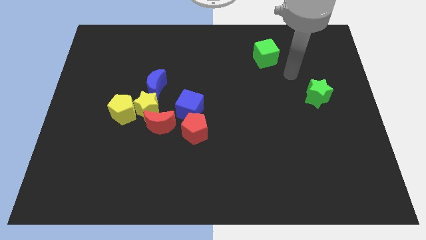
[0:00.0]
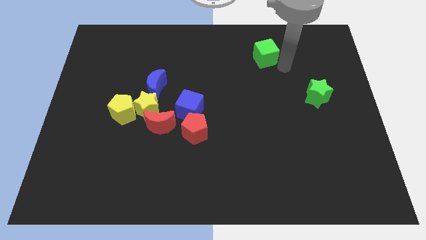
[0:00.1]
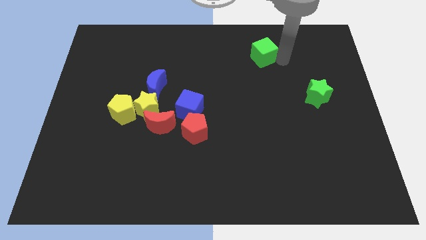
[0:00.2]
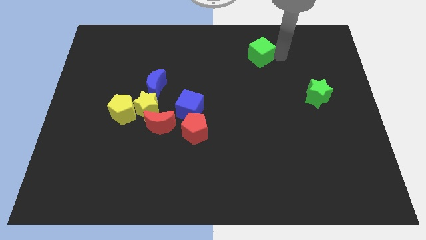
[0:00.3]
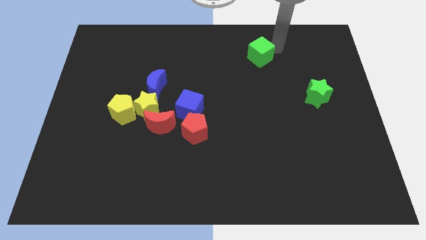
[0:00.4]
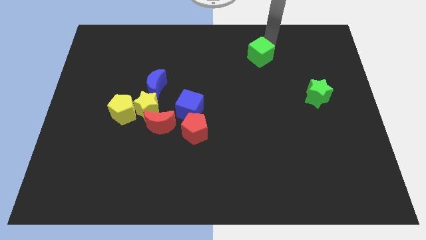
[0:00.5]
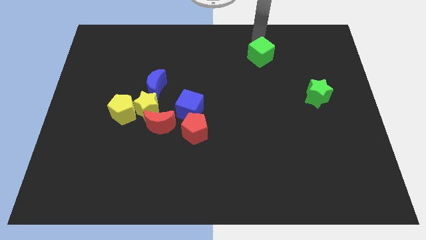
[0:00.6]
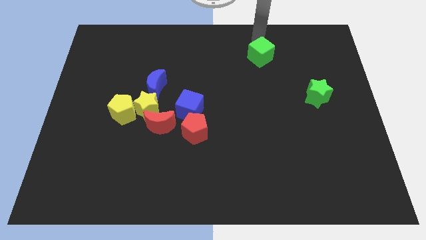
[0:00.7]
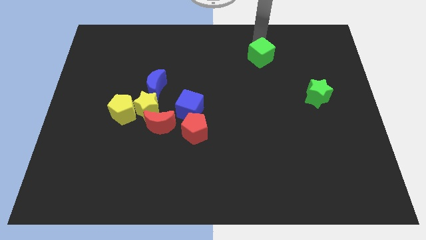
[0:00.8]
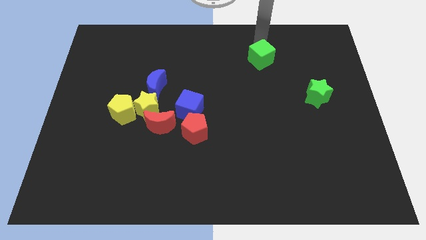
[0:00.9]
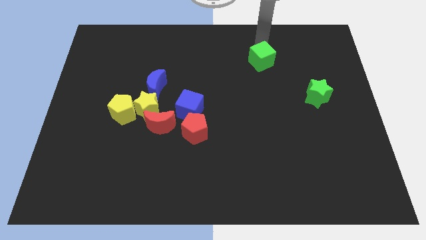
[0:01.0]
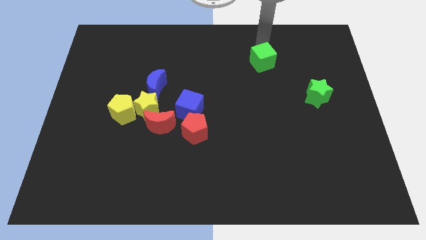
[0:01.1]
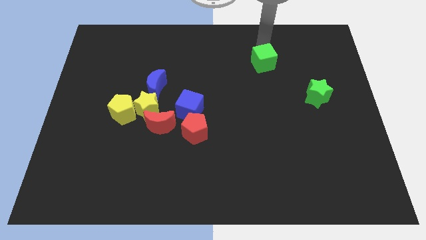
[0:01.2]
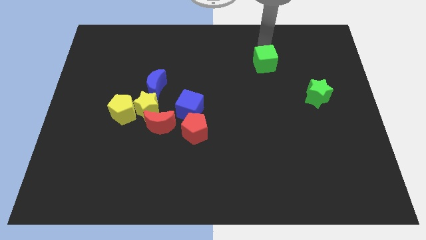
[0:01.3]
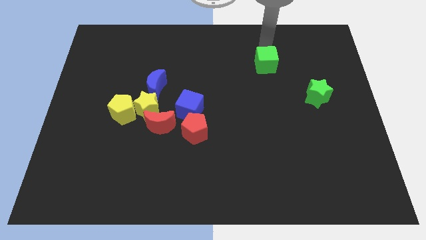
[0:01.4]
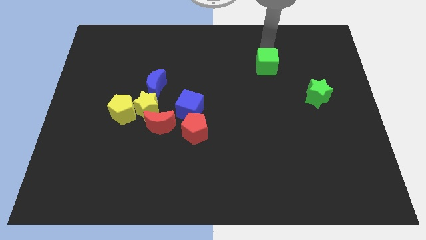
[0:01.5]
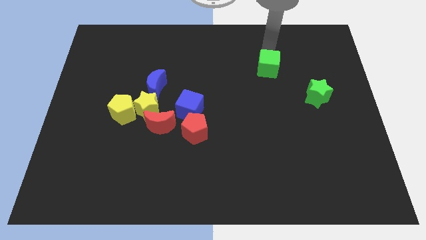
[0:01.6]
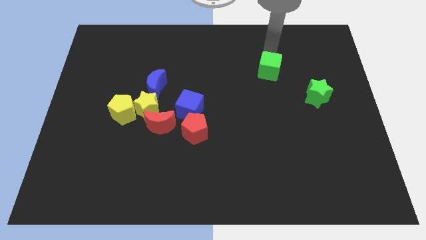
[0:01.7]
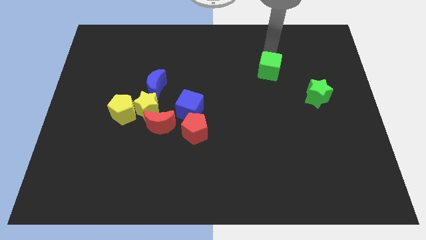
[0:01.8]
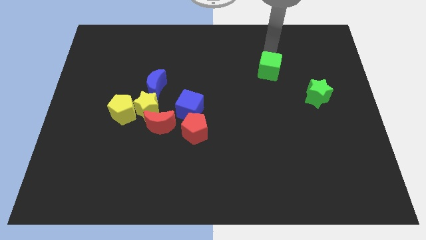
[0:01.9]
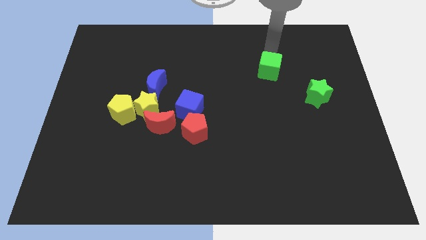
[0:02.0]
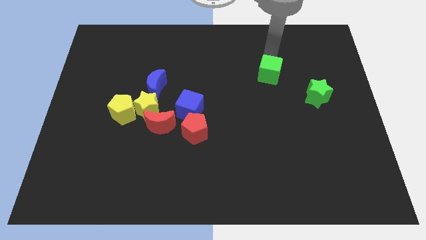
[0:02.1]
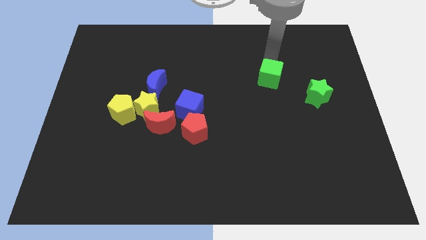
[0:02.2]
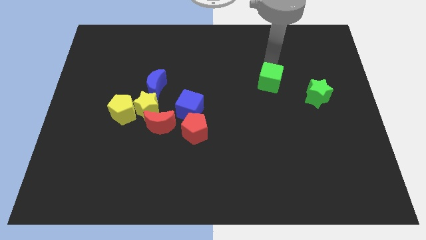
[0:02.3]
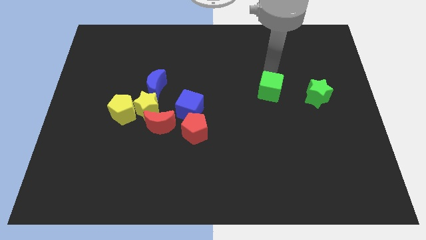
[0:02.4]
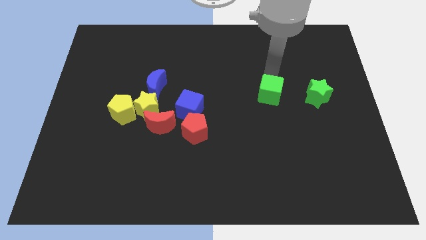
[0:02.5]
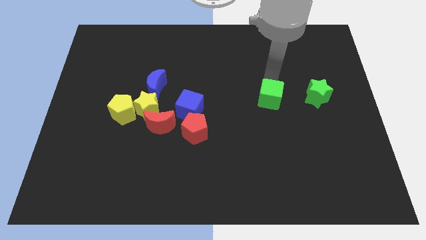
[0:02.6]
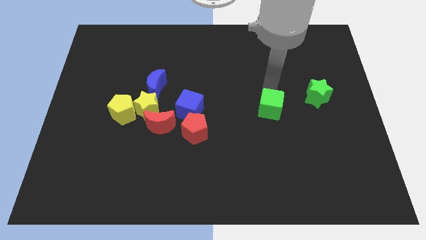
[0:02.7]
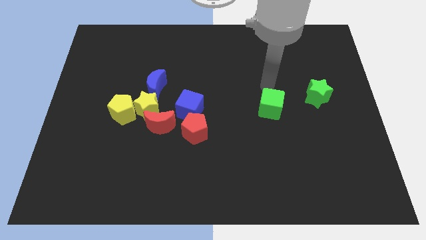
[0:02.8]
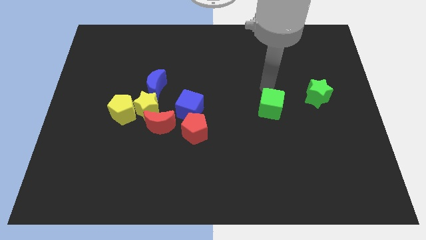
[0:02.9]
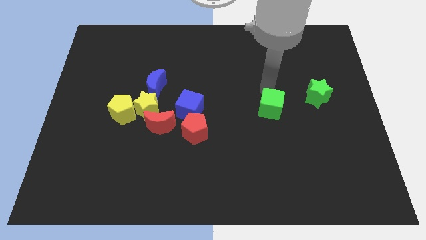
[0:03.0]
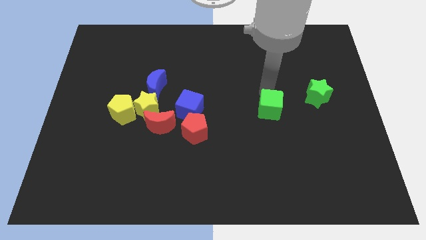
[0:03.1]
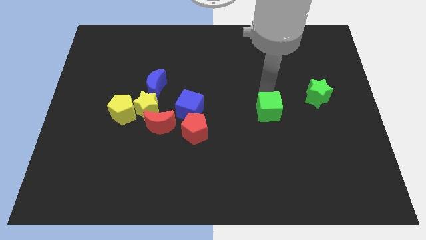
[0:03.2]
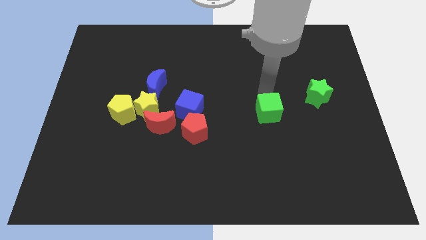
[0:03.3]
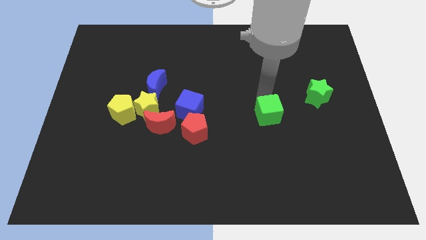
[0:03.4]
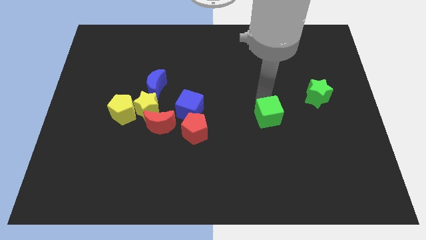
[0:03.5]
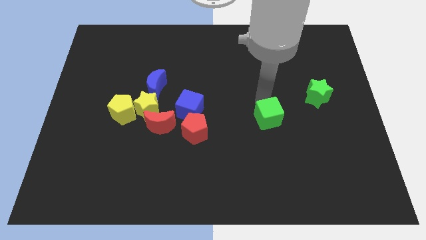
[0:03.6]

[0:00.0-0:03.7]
push the green cube down

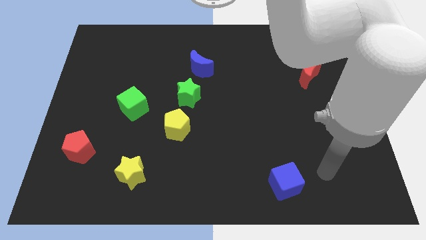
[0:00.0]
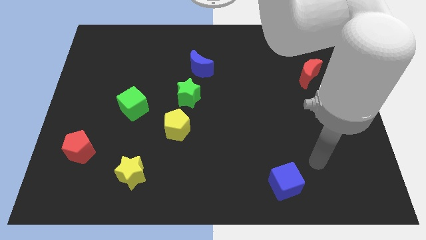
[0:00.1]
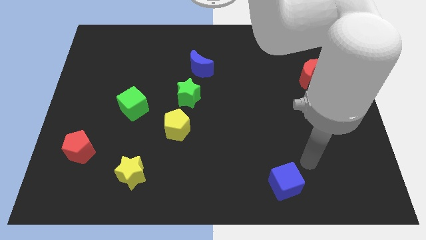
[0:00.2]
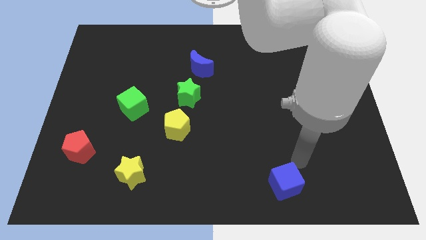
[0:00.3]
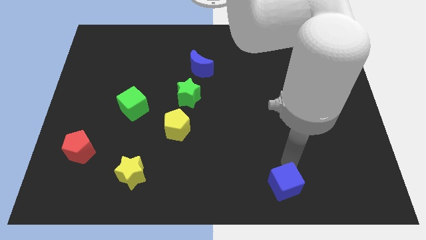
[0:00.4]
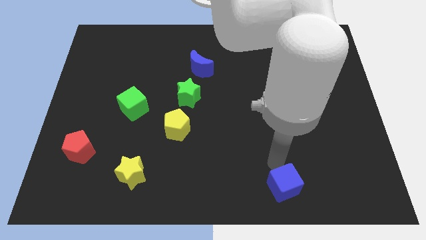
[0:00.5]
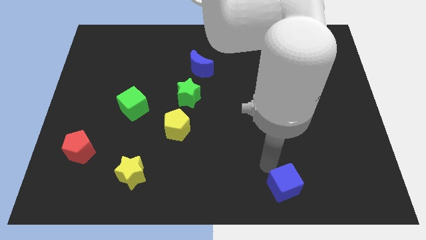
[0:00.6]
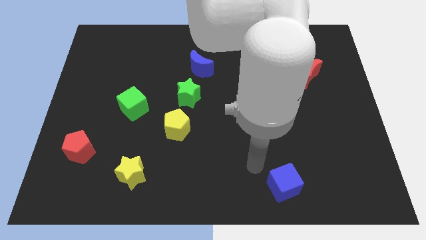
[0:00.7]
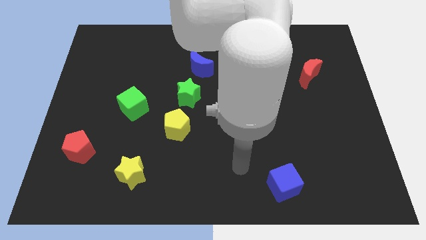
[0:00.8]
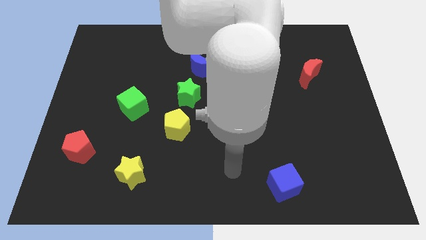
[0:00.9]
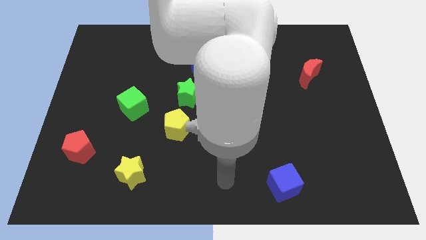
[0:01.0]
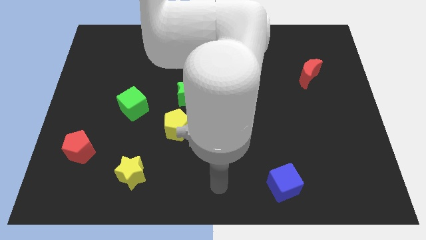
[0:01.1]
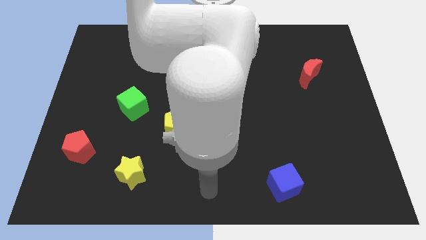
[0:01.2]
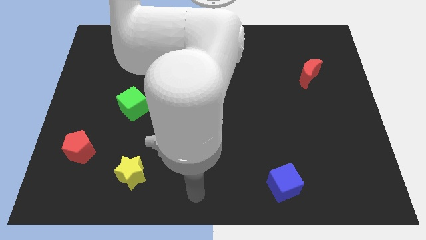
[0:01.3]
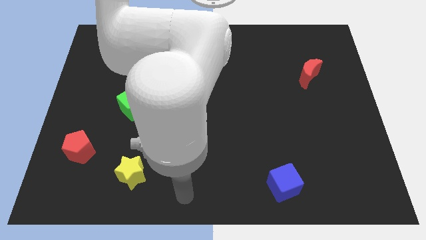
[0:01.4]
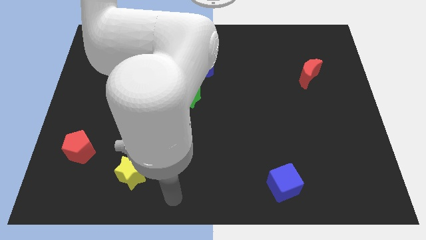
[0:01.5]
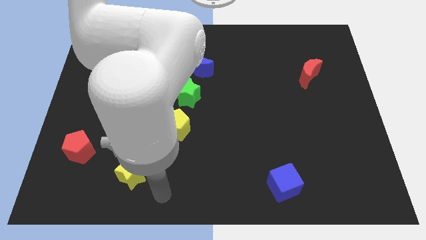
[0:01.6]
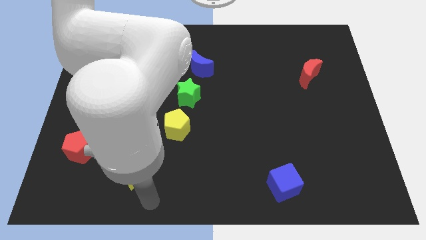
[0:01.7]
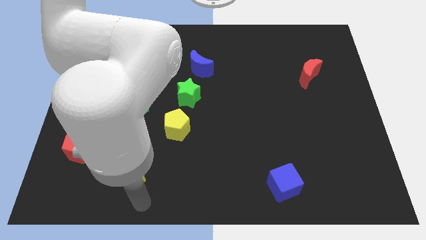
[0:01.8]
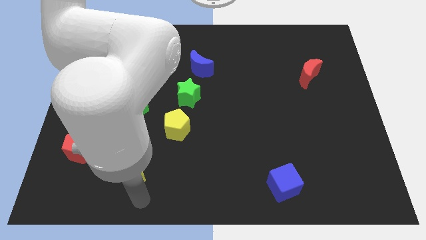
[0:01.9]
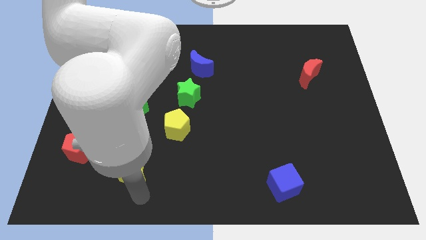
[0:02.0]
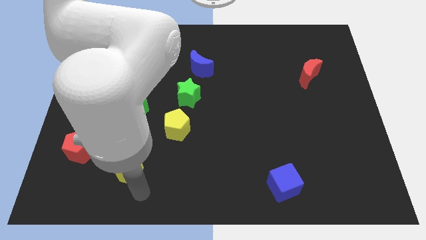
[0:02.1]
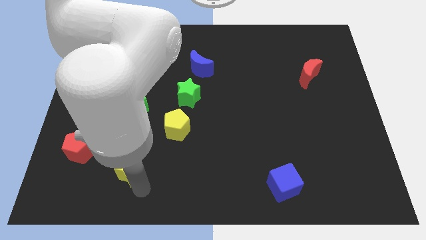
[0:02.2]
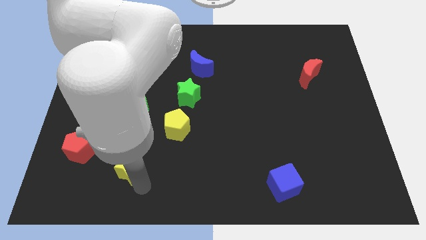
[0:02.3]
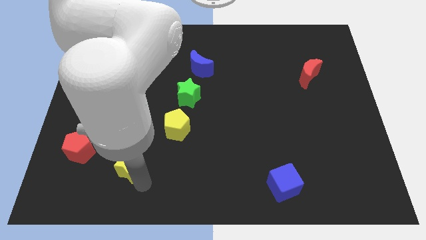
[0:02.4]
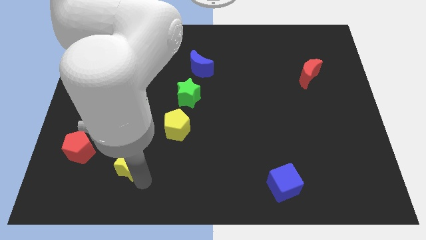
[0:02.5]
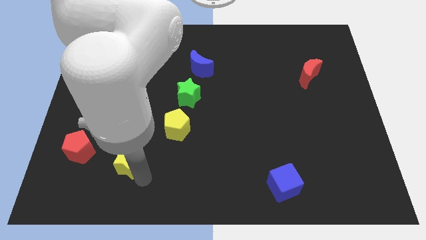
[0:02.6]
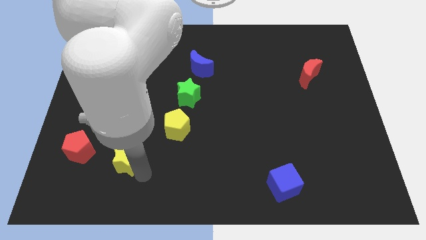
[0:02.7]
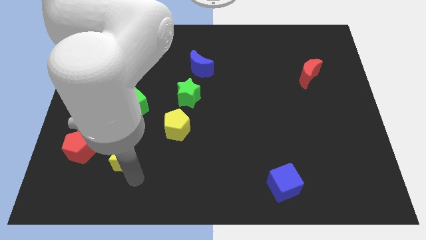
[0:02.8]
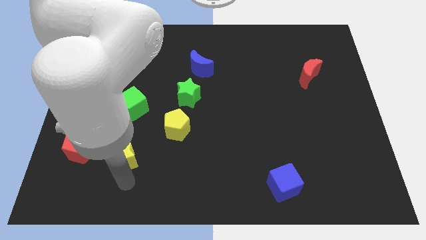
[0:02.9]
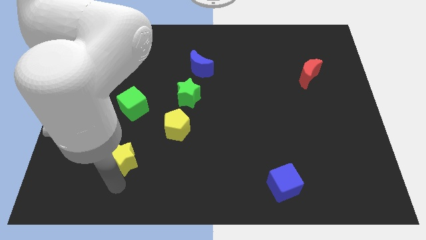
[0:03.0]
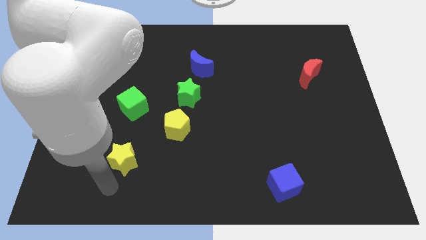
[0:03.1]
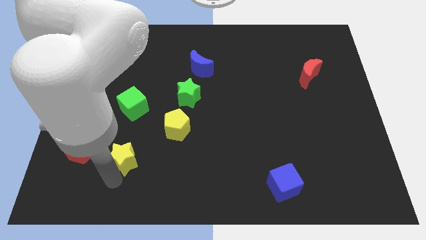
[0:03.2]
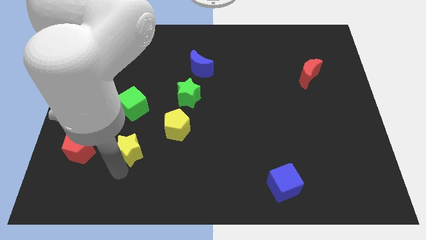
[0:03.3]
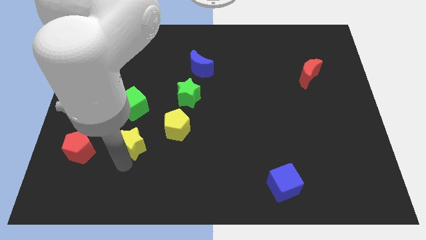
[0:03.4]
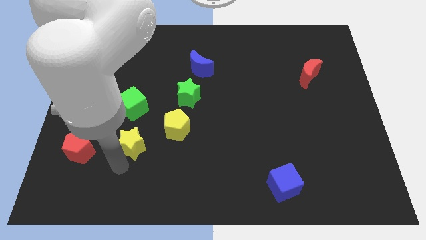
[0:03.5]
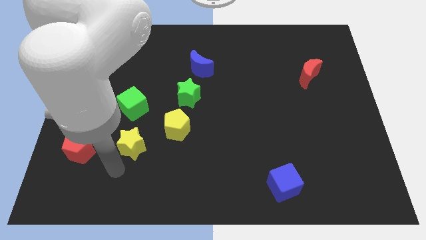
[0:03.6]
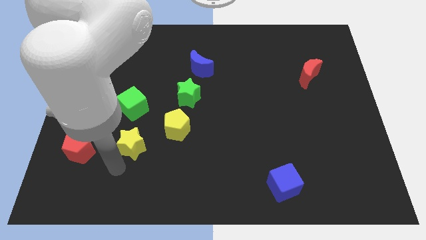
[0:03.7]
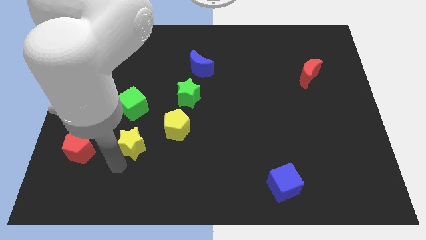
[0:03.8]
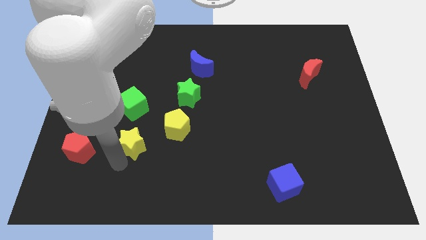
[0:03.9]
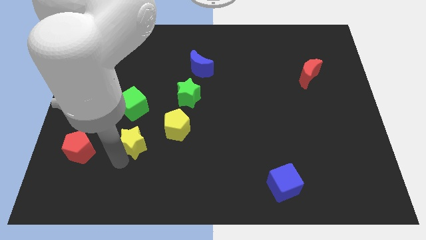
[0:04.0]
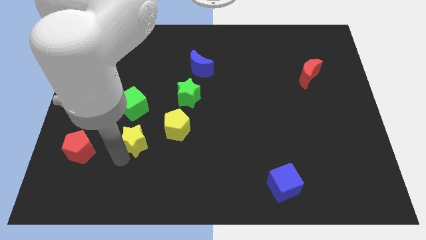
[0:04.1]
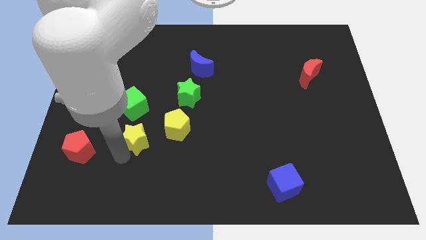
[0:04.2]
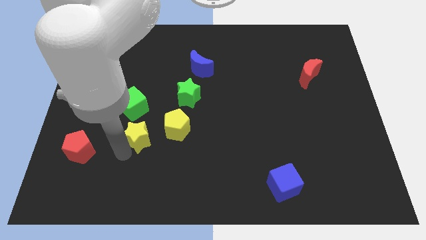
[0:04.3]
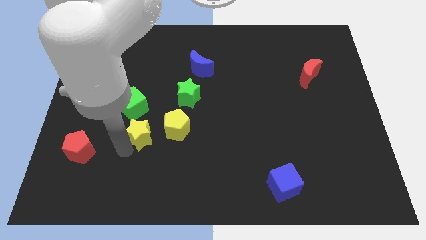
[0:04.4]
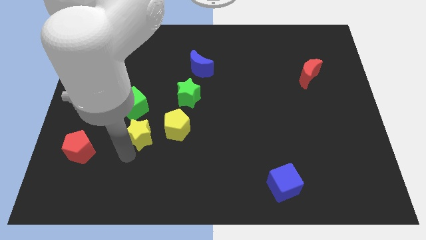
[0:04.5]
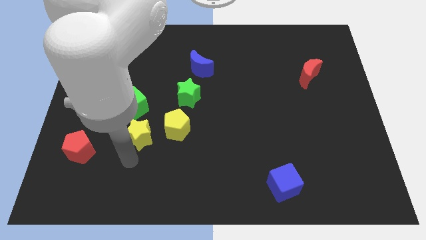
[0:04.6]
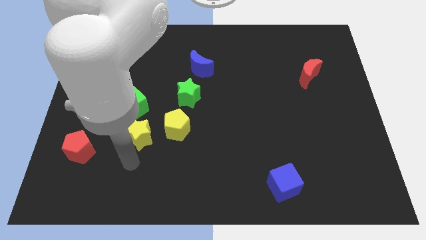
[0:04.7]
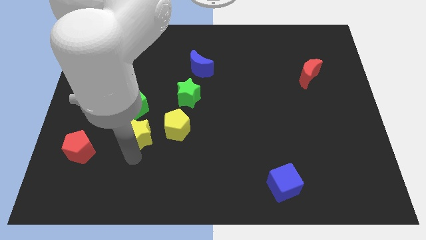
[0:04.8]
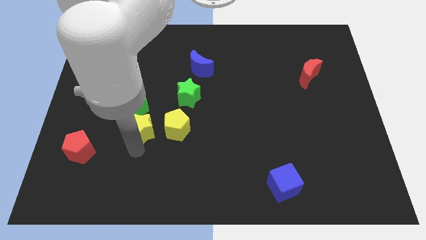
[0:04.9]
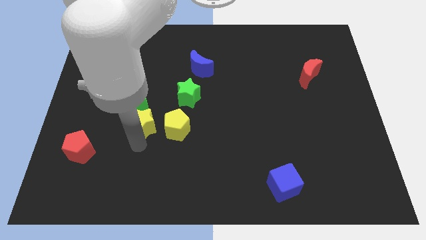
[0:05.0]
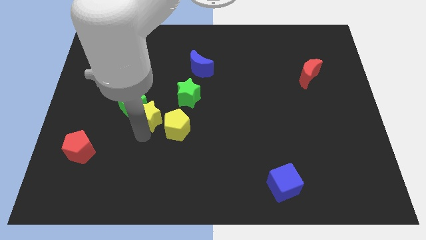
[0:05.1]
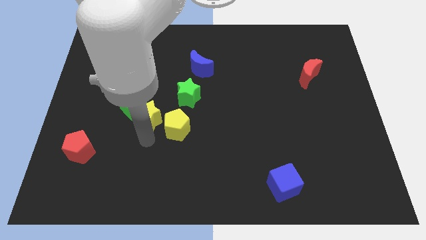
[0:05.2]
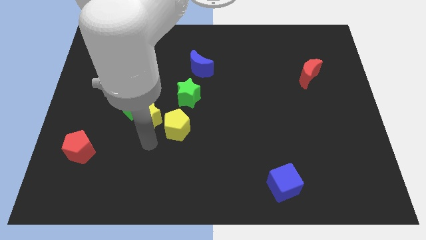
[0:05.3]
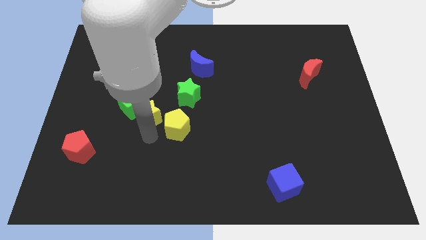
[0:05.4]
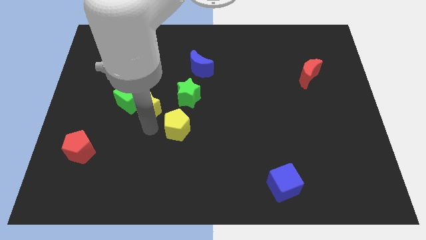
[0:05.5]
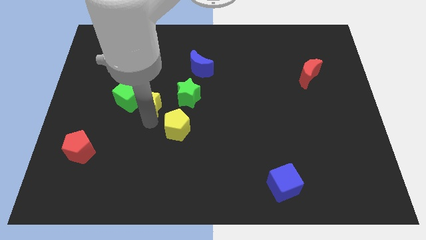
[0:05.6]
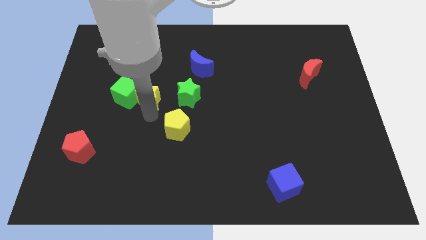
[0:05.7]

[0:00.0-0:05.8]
move the yellow star up
